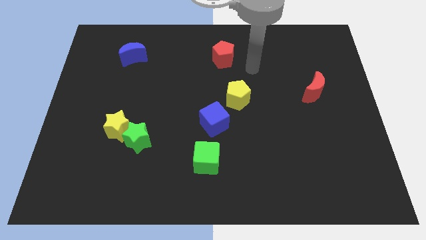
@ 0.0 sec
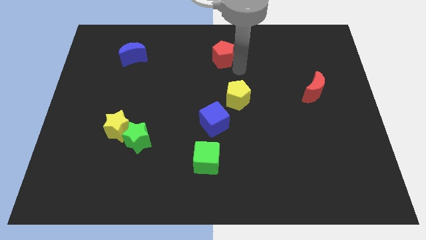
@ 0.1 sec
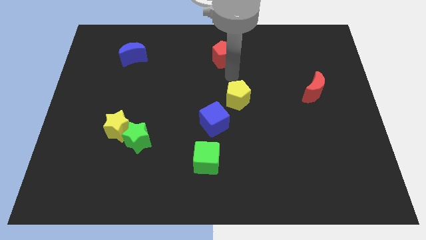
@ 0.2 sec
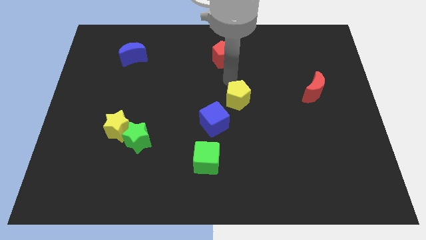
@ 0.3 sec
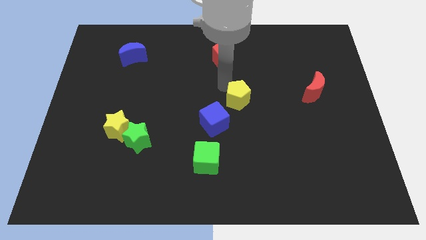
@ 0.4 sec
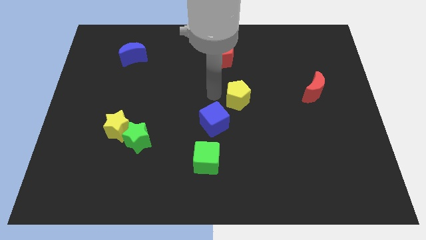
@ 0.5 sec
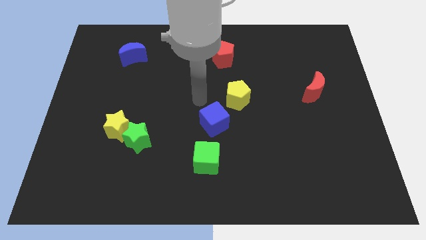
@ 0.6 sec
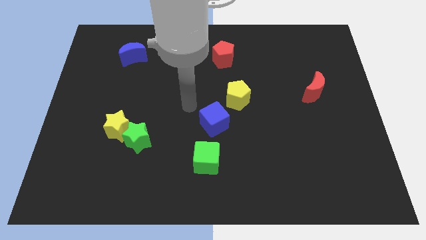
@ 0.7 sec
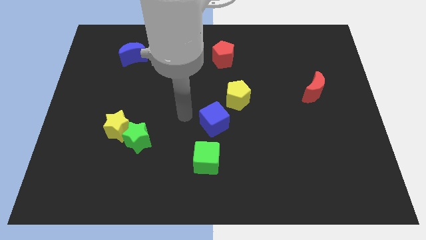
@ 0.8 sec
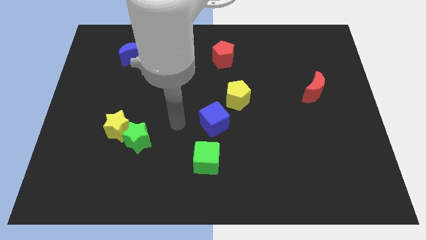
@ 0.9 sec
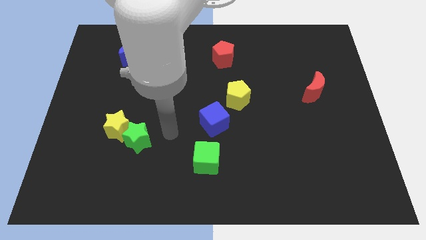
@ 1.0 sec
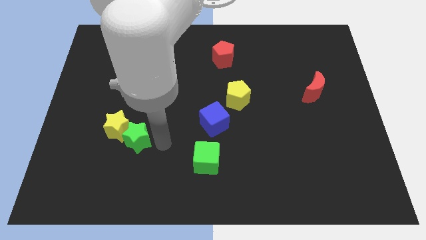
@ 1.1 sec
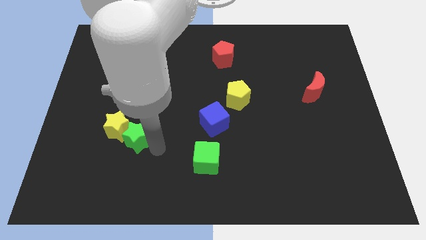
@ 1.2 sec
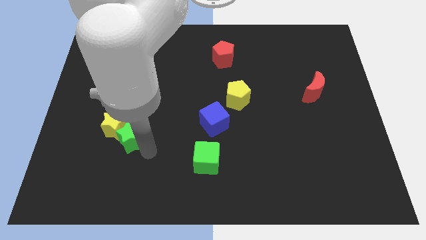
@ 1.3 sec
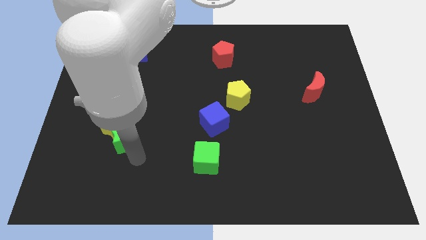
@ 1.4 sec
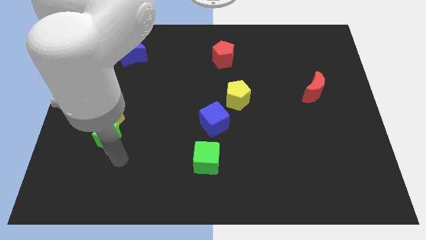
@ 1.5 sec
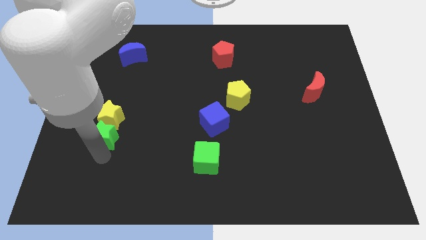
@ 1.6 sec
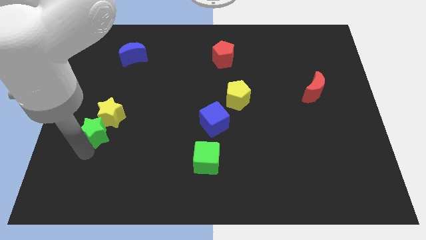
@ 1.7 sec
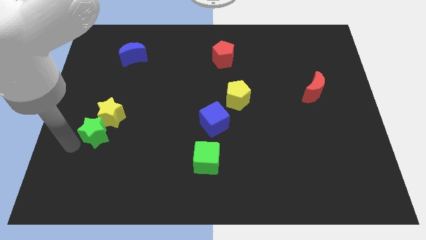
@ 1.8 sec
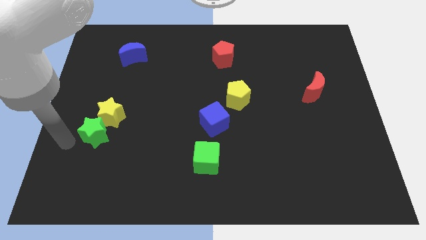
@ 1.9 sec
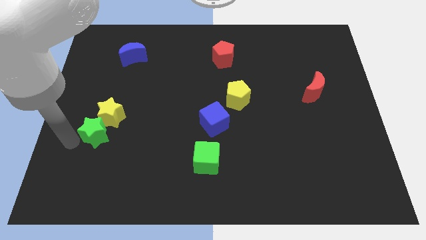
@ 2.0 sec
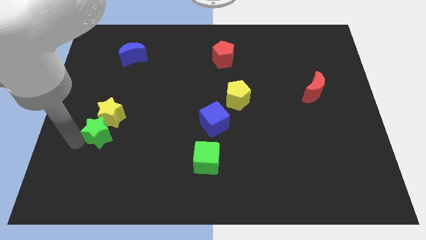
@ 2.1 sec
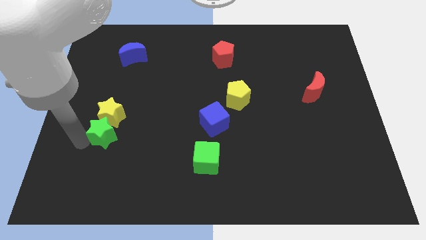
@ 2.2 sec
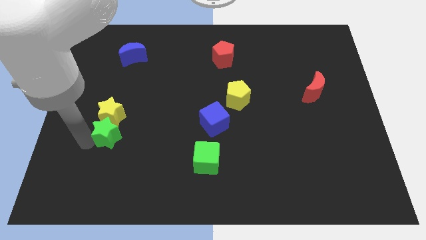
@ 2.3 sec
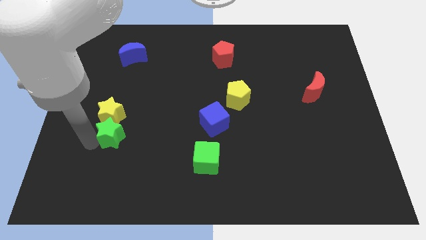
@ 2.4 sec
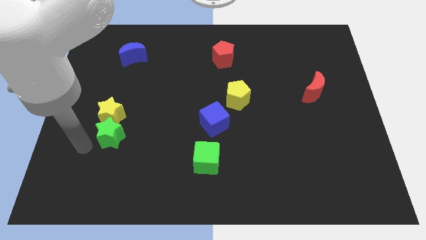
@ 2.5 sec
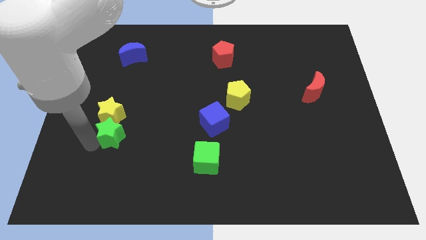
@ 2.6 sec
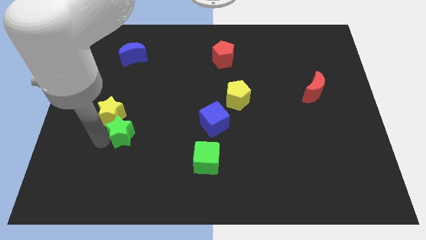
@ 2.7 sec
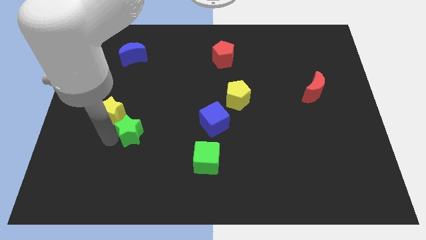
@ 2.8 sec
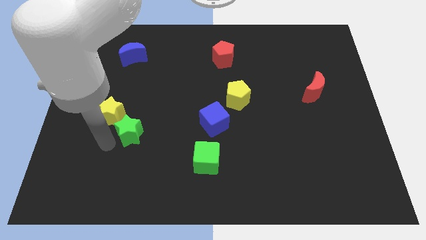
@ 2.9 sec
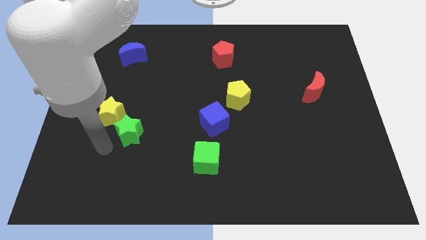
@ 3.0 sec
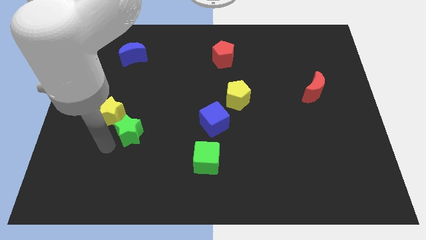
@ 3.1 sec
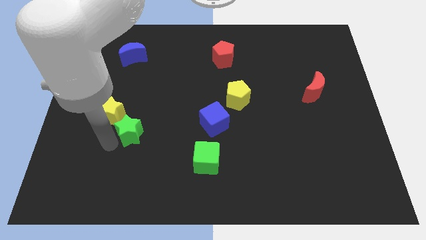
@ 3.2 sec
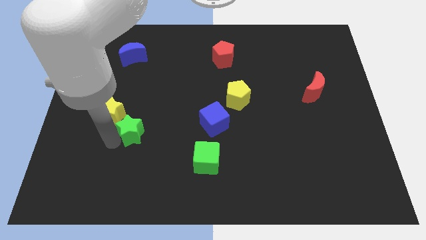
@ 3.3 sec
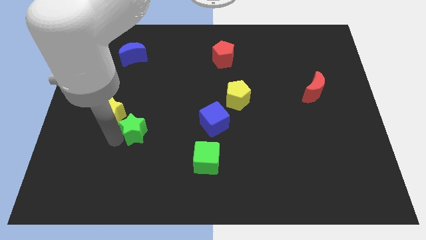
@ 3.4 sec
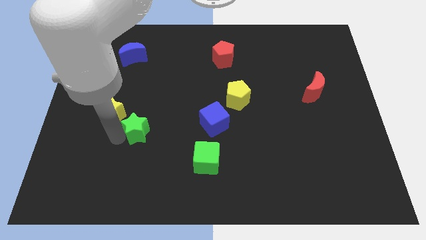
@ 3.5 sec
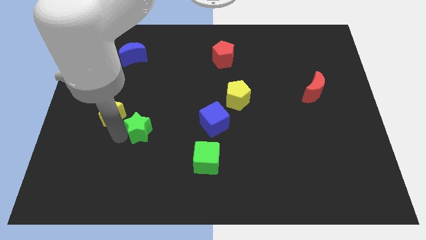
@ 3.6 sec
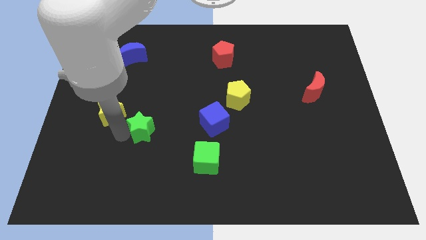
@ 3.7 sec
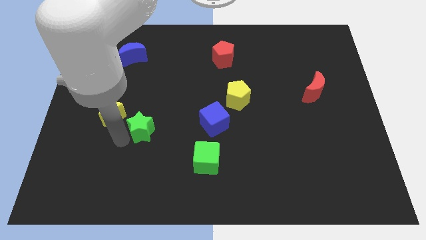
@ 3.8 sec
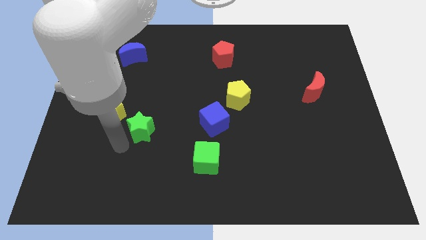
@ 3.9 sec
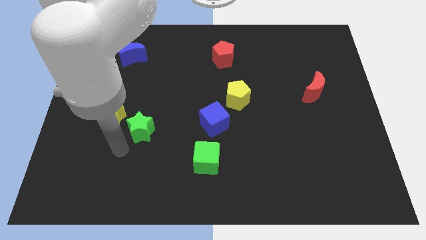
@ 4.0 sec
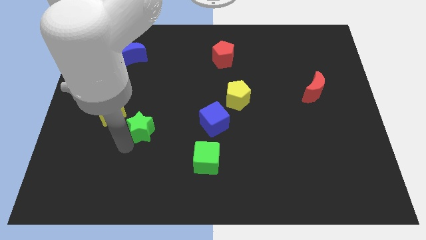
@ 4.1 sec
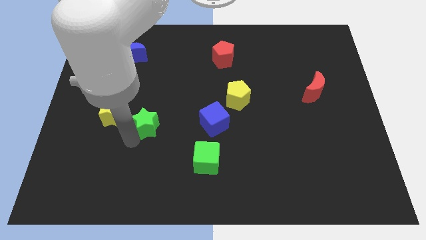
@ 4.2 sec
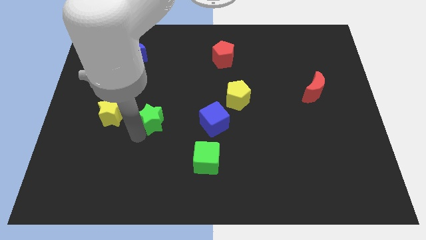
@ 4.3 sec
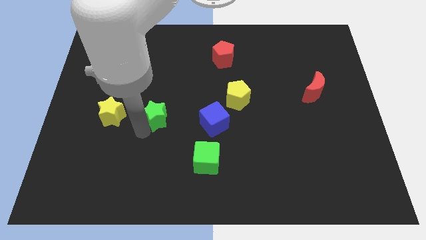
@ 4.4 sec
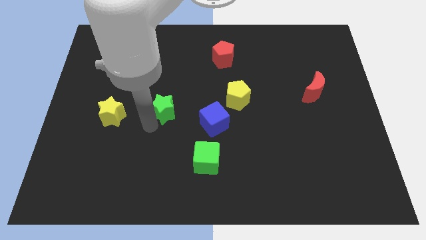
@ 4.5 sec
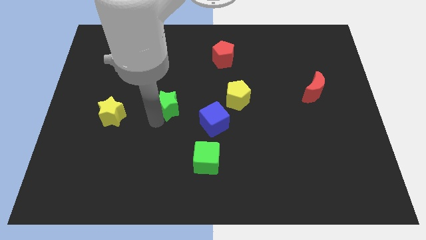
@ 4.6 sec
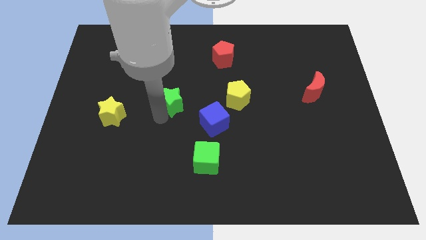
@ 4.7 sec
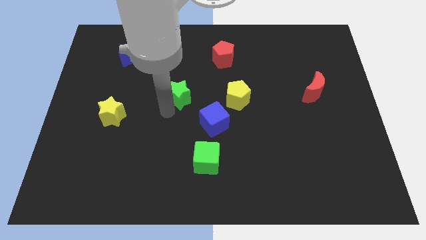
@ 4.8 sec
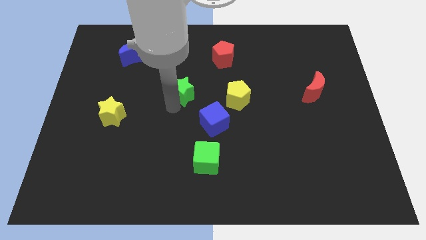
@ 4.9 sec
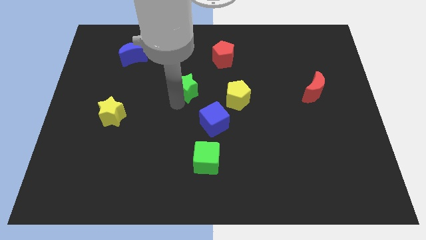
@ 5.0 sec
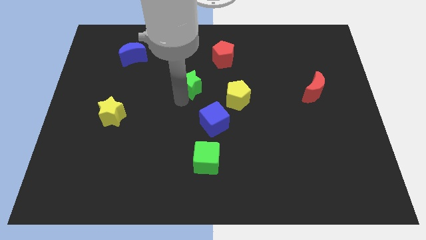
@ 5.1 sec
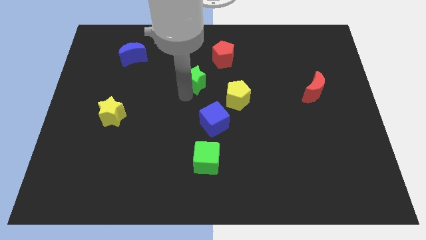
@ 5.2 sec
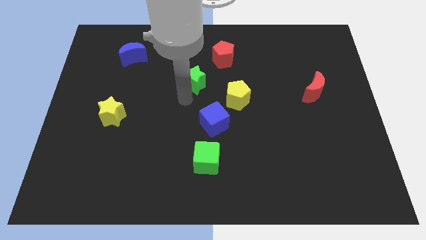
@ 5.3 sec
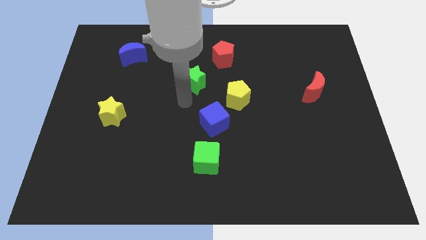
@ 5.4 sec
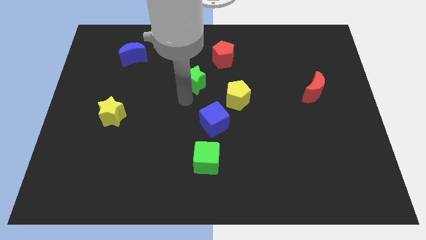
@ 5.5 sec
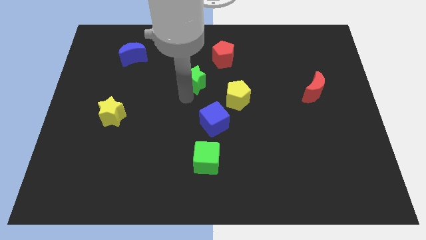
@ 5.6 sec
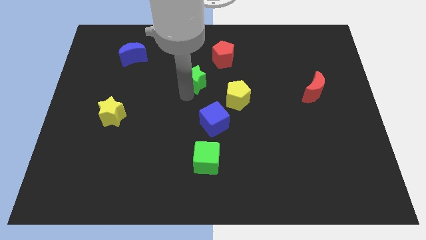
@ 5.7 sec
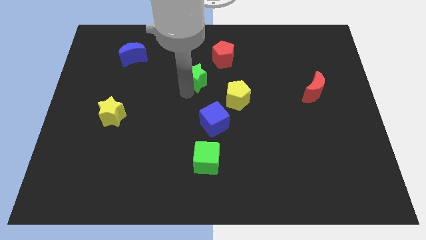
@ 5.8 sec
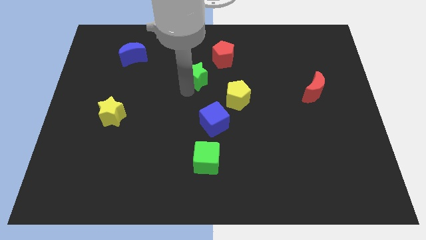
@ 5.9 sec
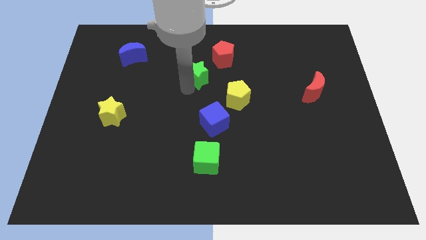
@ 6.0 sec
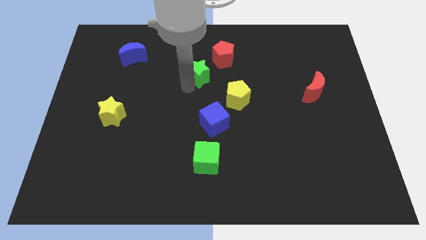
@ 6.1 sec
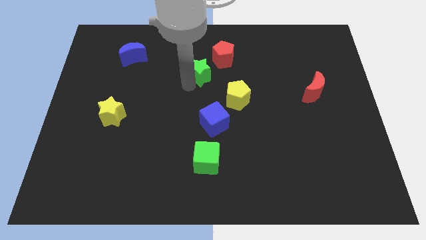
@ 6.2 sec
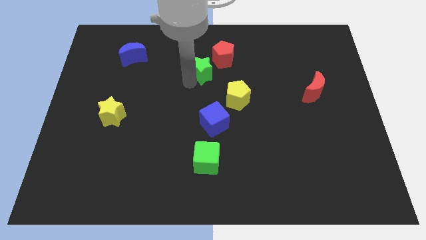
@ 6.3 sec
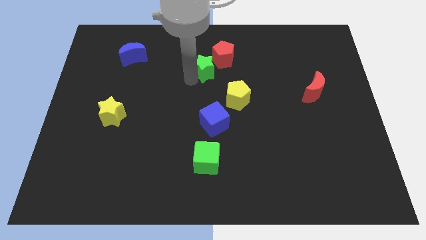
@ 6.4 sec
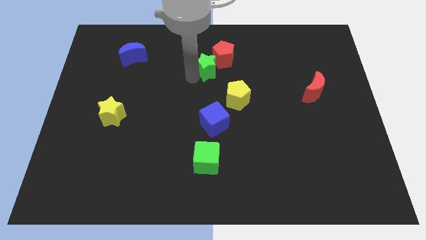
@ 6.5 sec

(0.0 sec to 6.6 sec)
move the green star to the red pentagon

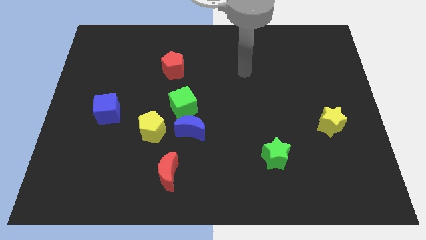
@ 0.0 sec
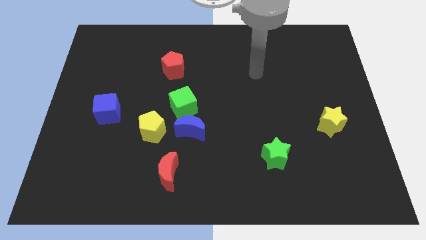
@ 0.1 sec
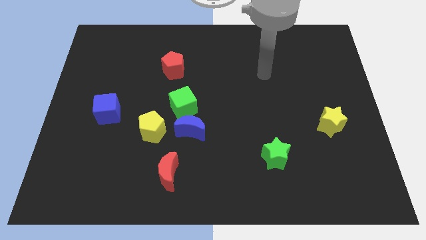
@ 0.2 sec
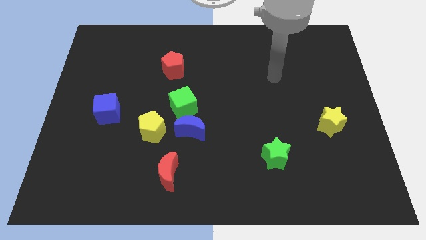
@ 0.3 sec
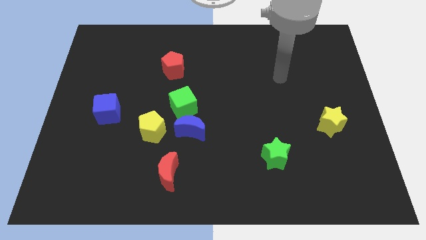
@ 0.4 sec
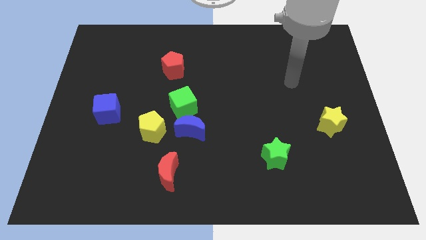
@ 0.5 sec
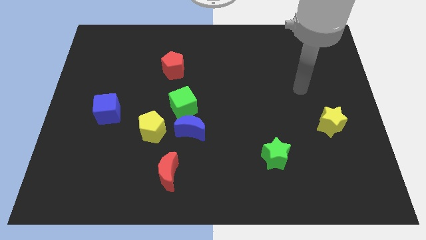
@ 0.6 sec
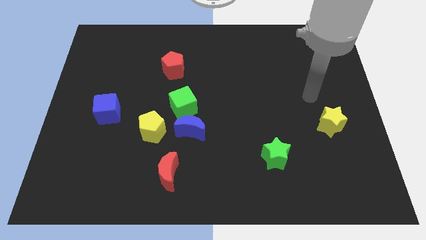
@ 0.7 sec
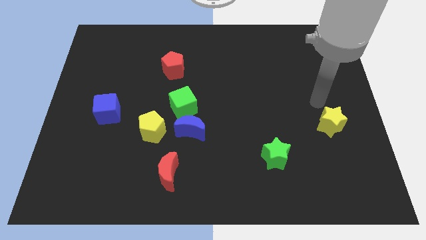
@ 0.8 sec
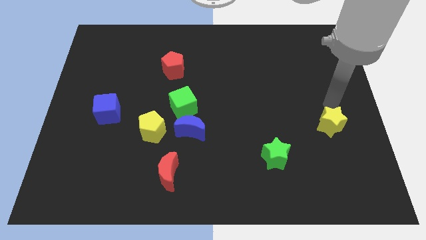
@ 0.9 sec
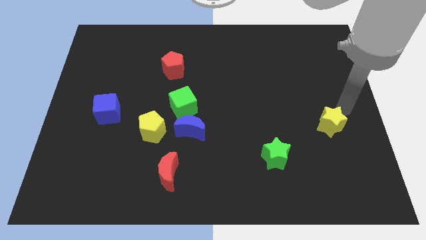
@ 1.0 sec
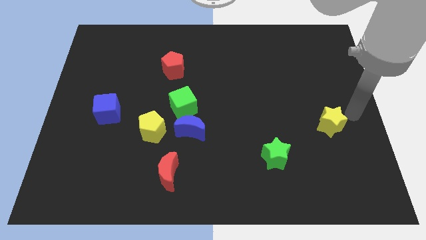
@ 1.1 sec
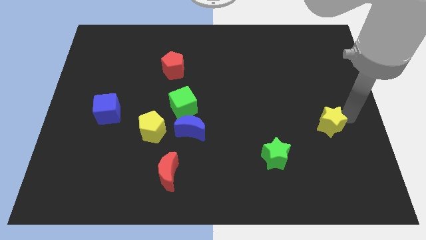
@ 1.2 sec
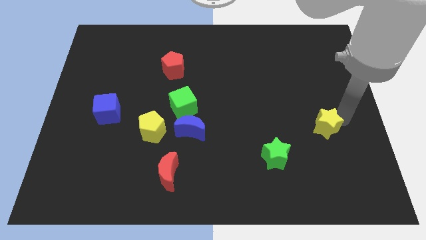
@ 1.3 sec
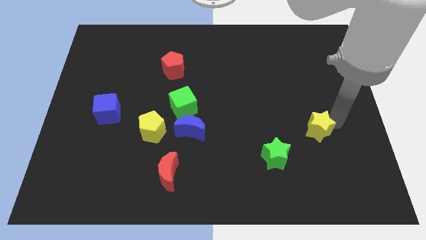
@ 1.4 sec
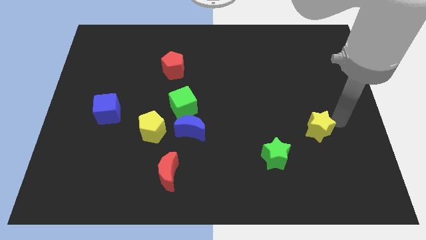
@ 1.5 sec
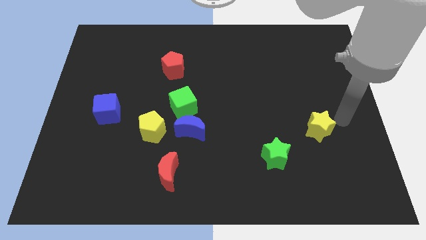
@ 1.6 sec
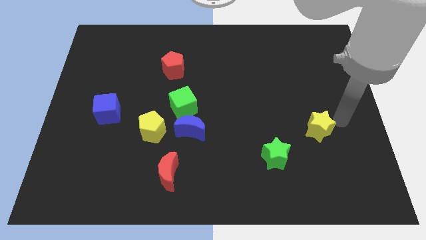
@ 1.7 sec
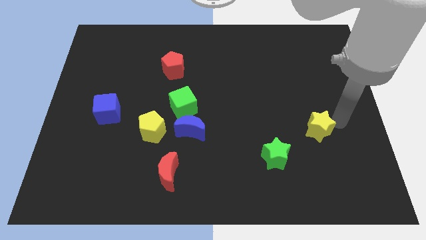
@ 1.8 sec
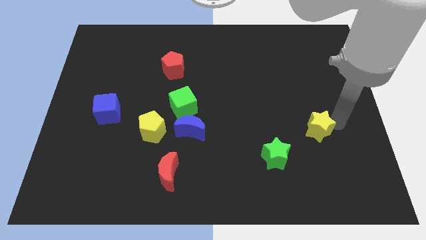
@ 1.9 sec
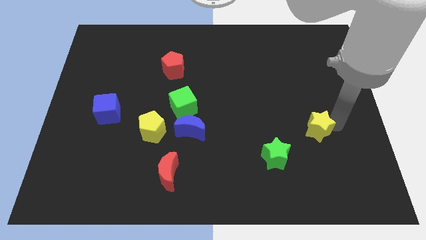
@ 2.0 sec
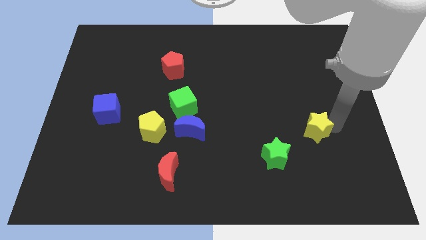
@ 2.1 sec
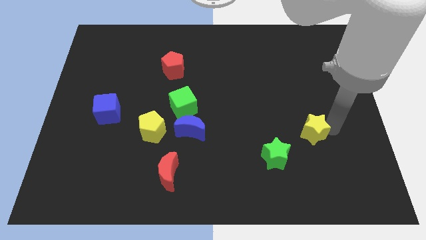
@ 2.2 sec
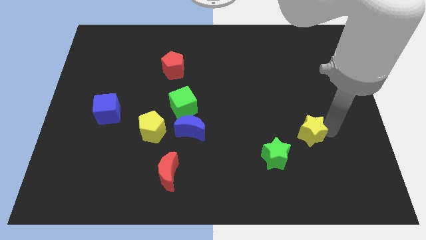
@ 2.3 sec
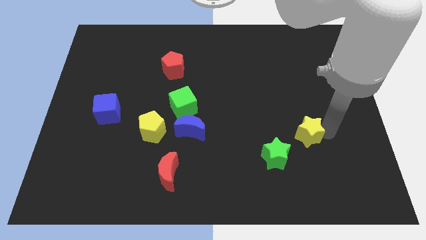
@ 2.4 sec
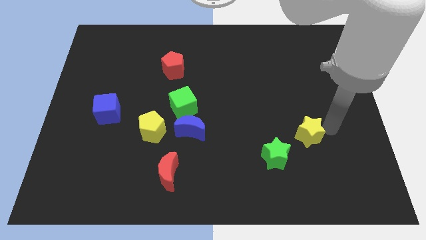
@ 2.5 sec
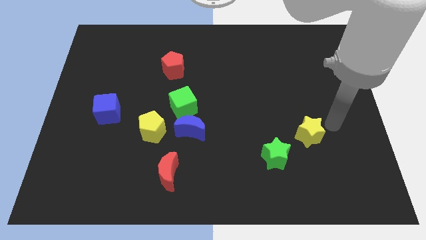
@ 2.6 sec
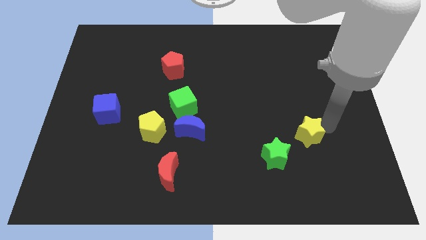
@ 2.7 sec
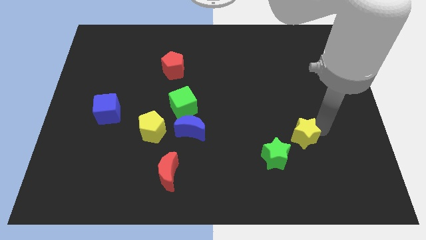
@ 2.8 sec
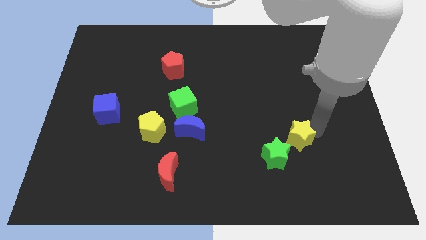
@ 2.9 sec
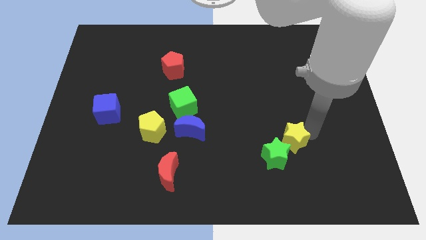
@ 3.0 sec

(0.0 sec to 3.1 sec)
slide the yellow star towards the green star
